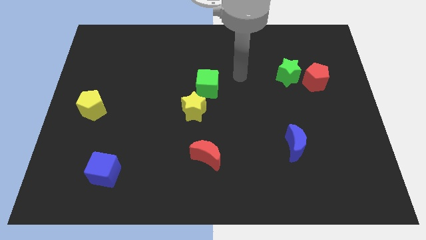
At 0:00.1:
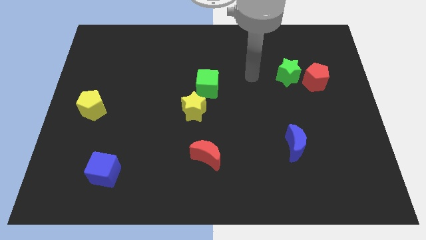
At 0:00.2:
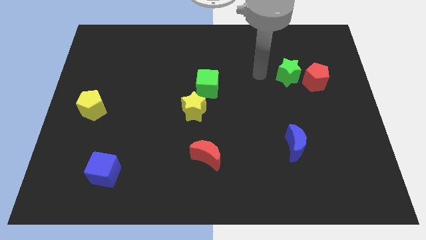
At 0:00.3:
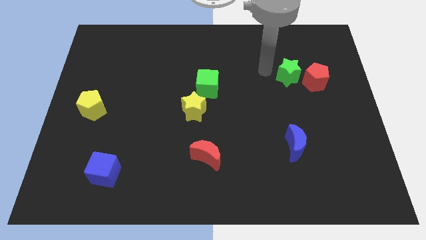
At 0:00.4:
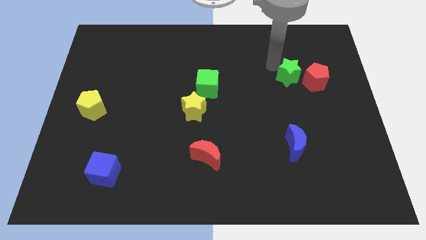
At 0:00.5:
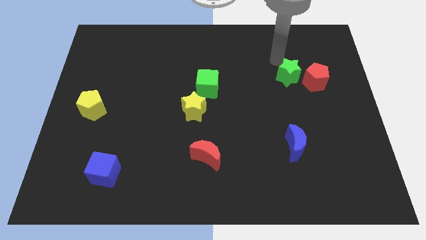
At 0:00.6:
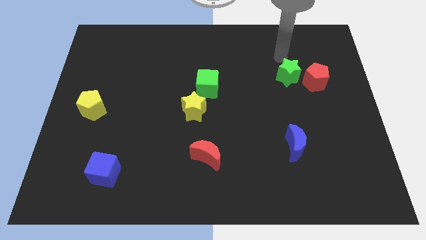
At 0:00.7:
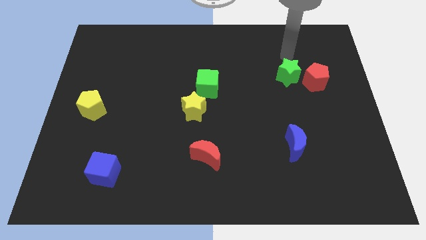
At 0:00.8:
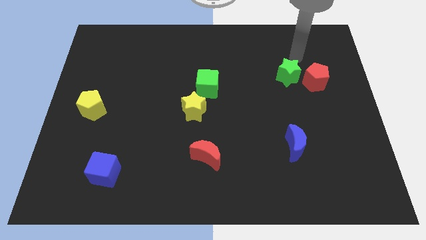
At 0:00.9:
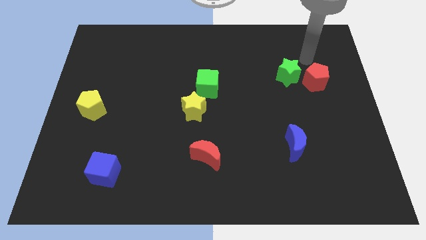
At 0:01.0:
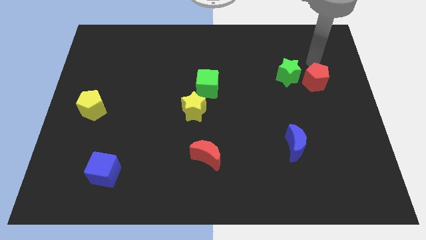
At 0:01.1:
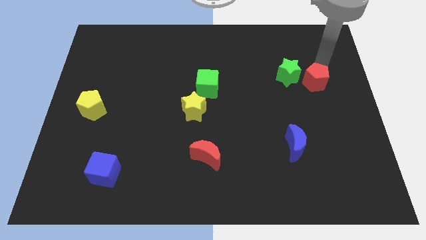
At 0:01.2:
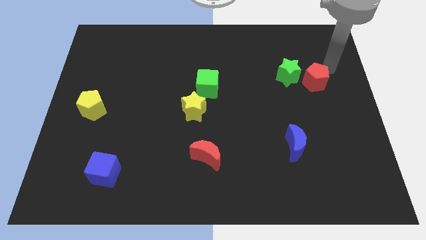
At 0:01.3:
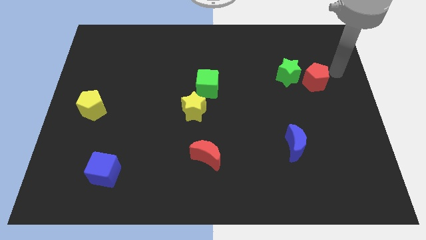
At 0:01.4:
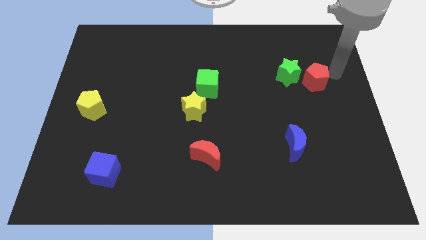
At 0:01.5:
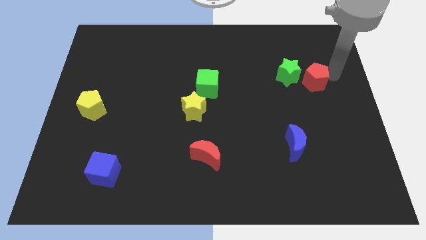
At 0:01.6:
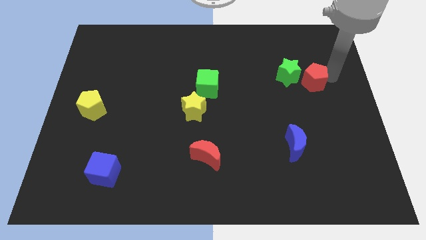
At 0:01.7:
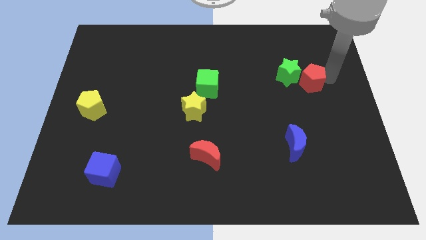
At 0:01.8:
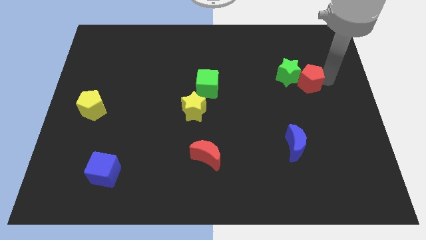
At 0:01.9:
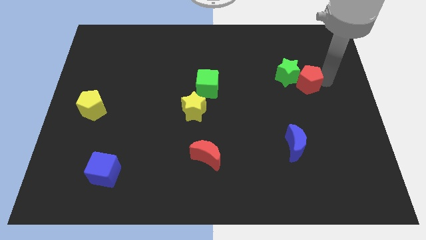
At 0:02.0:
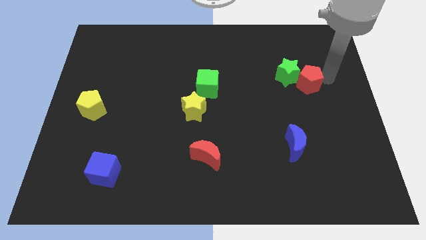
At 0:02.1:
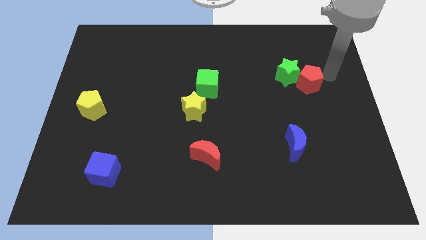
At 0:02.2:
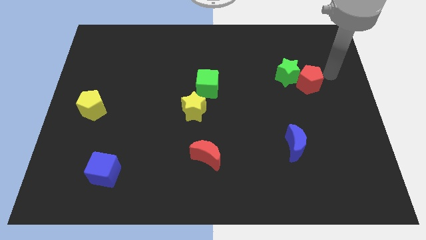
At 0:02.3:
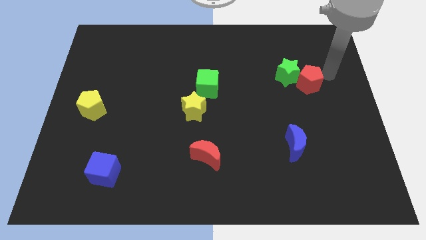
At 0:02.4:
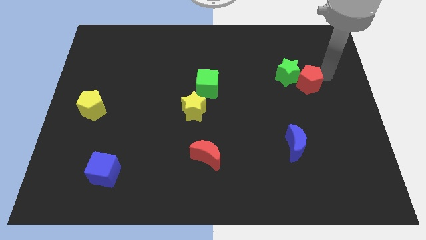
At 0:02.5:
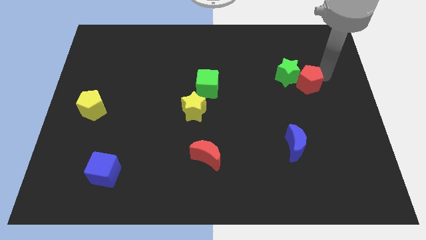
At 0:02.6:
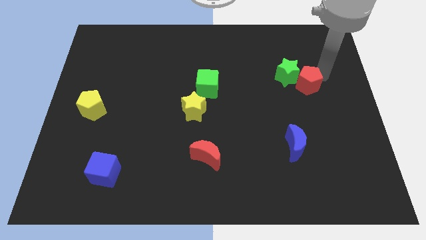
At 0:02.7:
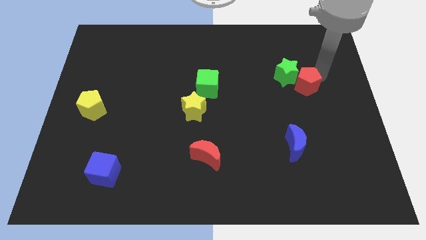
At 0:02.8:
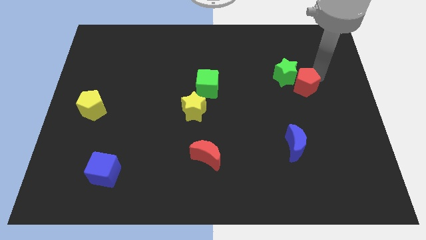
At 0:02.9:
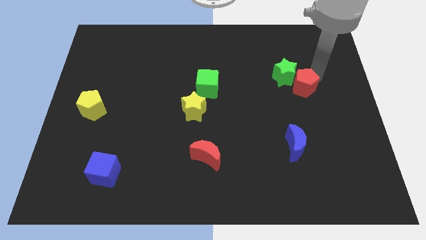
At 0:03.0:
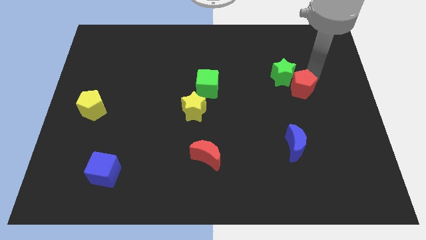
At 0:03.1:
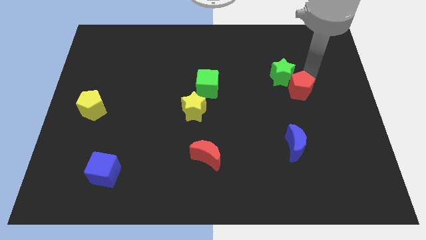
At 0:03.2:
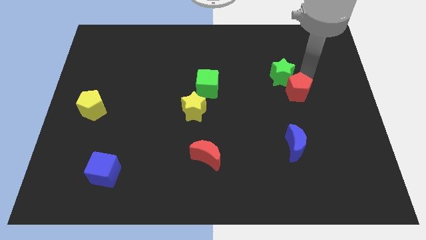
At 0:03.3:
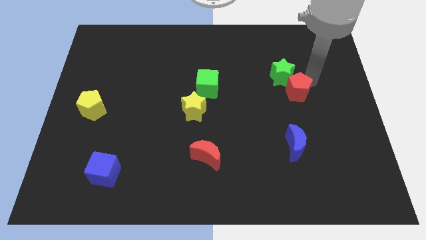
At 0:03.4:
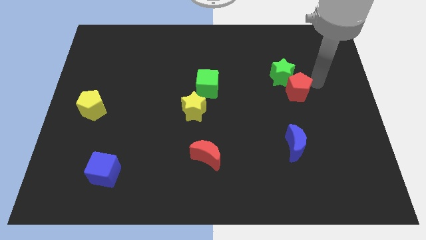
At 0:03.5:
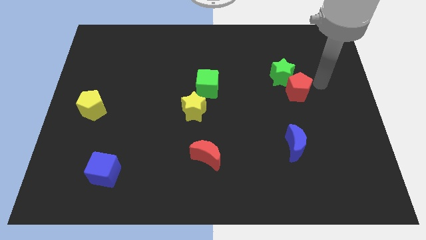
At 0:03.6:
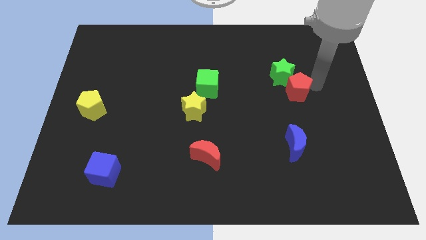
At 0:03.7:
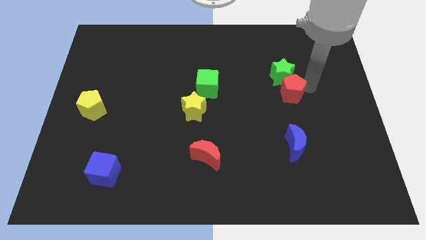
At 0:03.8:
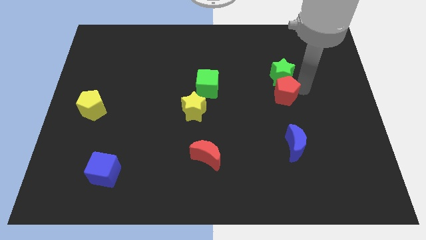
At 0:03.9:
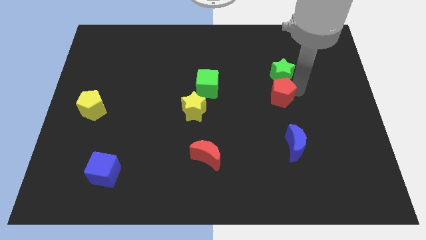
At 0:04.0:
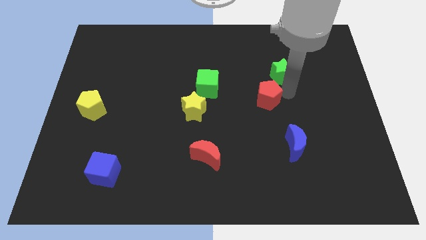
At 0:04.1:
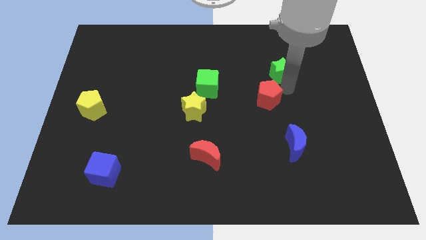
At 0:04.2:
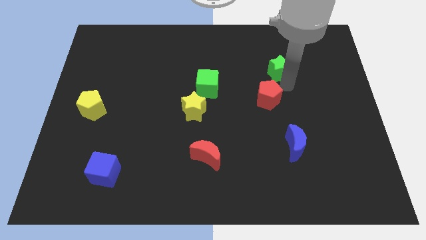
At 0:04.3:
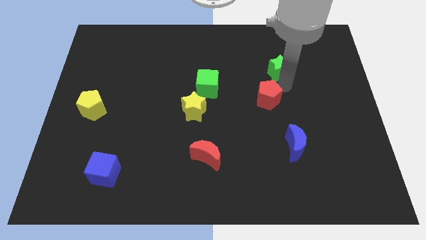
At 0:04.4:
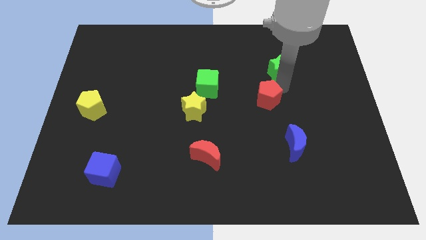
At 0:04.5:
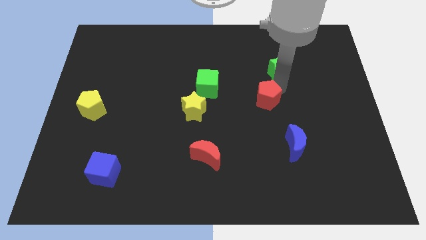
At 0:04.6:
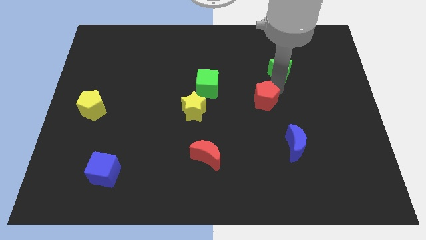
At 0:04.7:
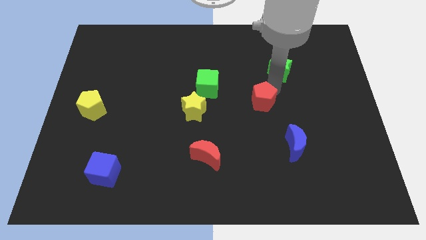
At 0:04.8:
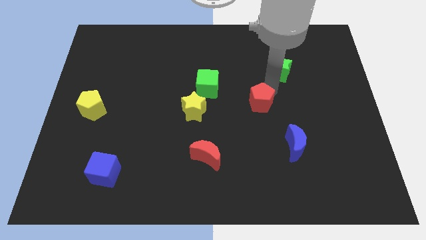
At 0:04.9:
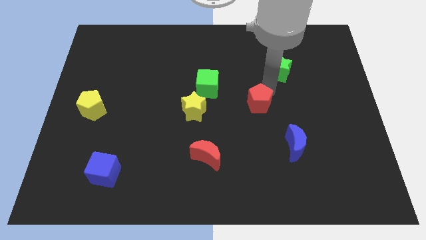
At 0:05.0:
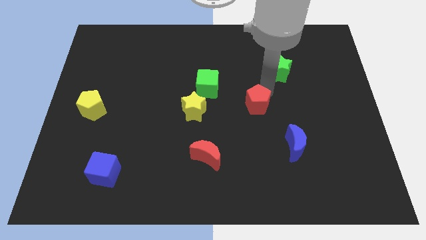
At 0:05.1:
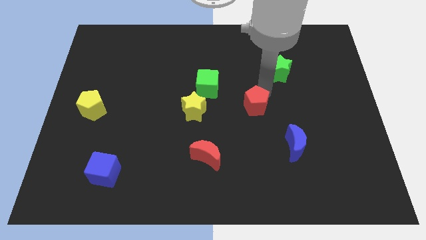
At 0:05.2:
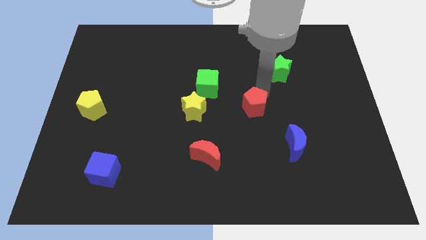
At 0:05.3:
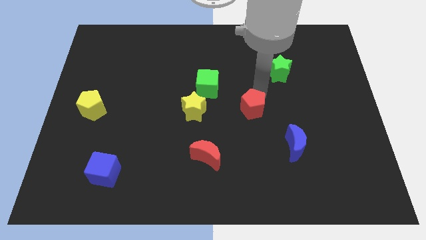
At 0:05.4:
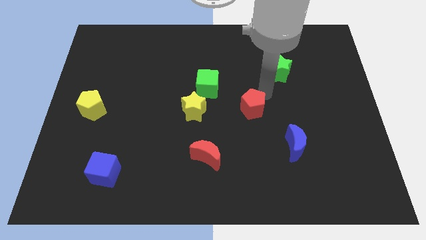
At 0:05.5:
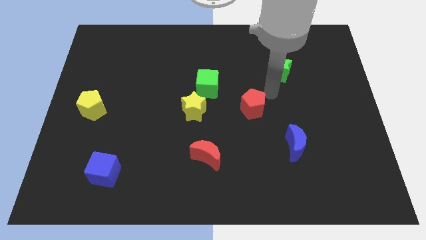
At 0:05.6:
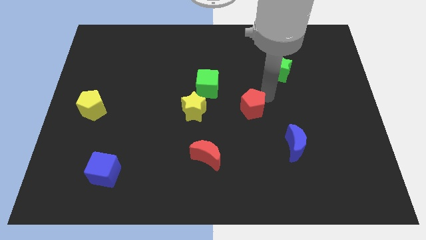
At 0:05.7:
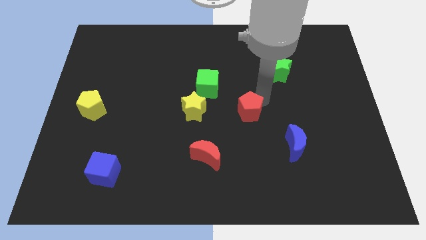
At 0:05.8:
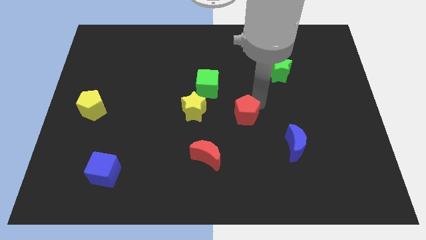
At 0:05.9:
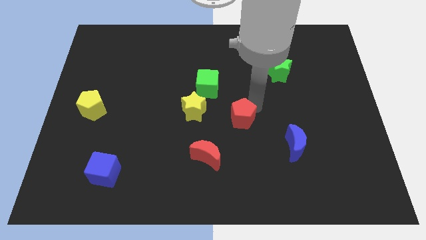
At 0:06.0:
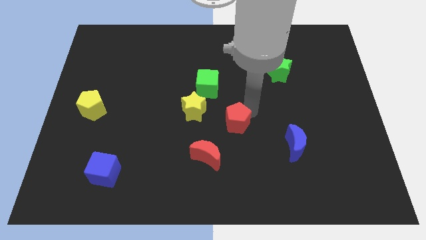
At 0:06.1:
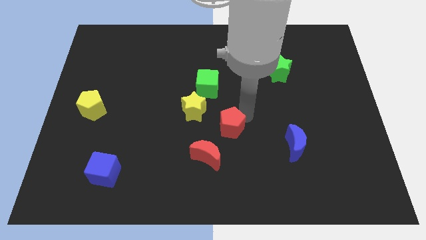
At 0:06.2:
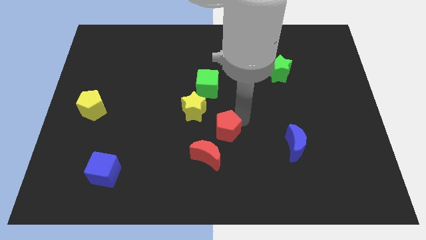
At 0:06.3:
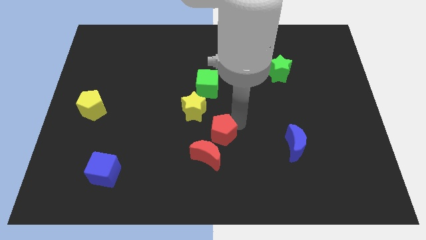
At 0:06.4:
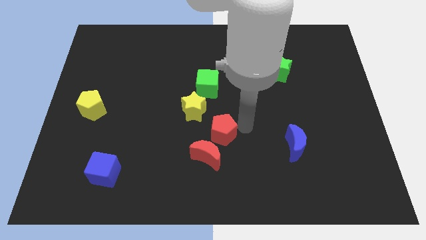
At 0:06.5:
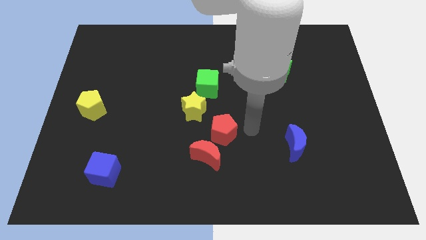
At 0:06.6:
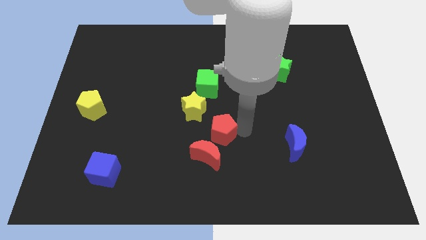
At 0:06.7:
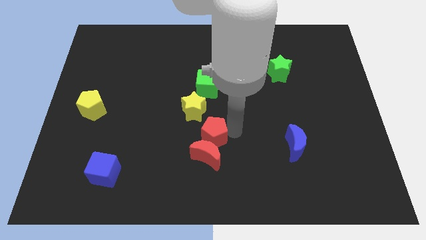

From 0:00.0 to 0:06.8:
slide the red pentagon to the top left of the red moon

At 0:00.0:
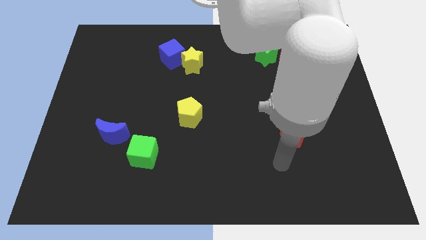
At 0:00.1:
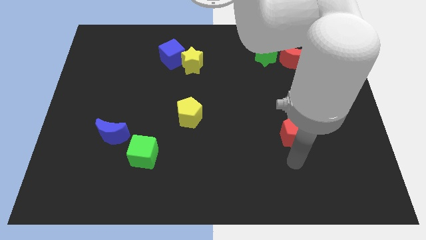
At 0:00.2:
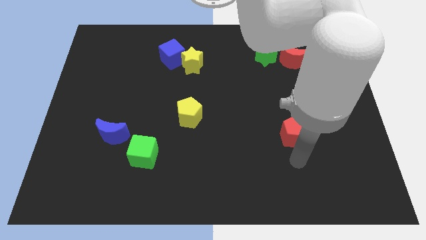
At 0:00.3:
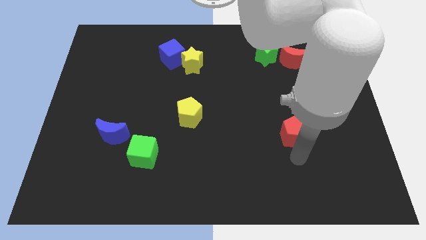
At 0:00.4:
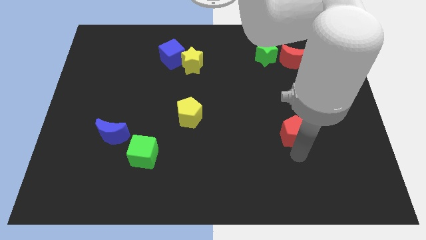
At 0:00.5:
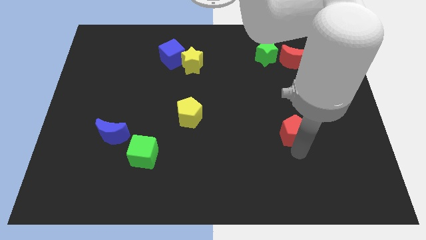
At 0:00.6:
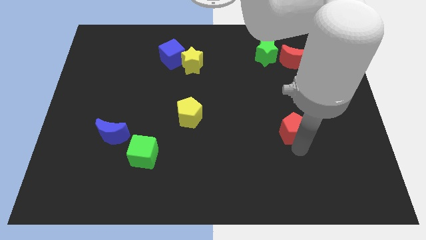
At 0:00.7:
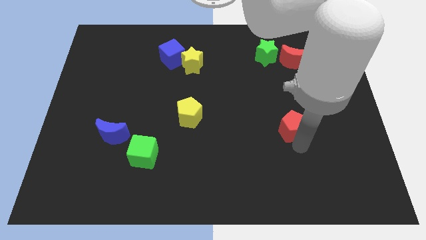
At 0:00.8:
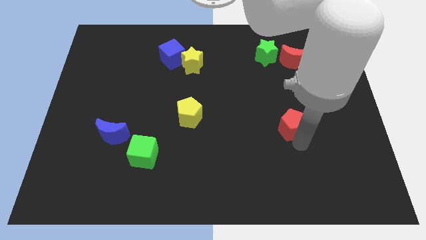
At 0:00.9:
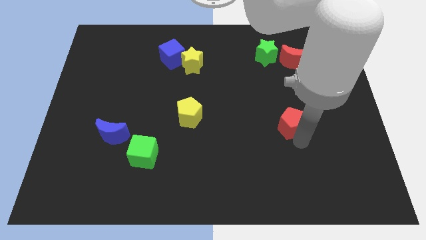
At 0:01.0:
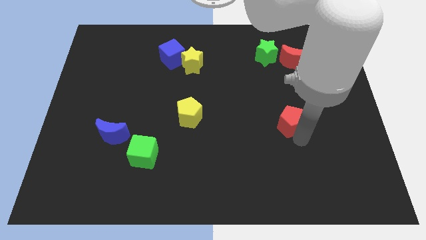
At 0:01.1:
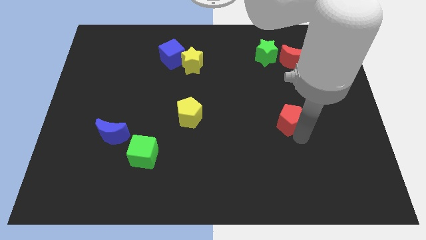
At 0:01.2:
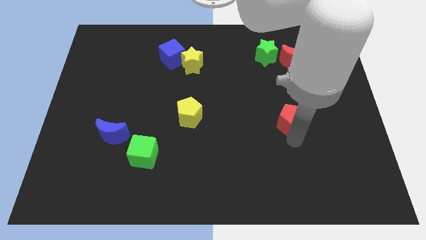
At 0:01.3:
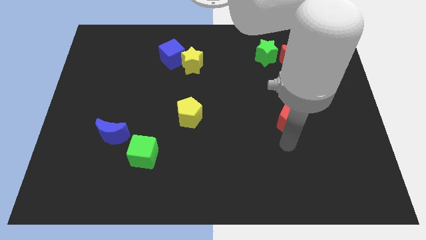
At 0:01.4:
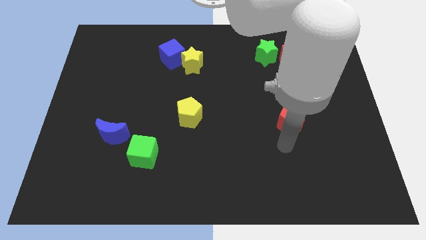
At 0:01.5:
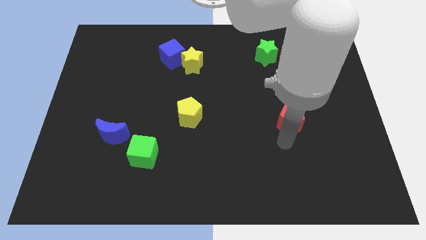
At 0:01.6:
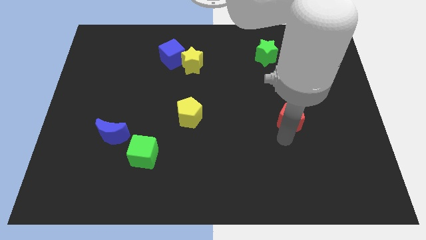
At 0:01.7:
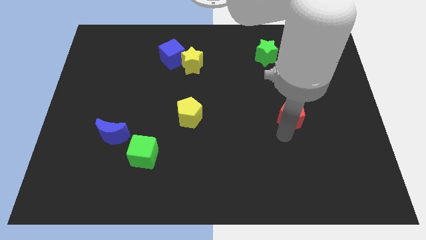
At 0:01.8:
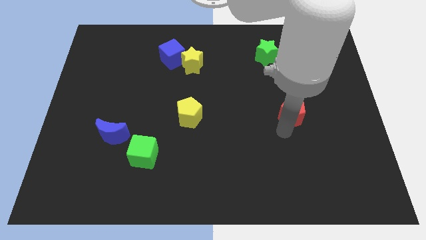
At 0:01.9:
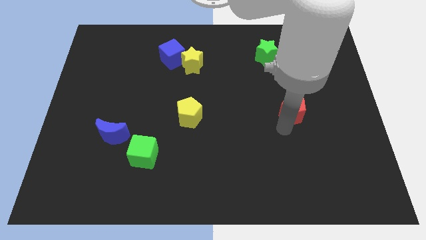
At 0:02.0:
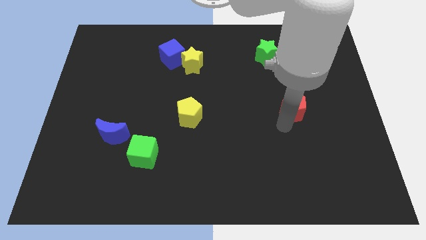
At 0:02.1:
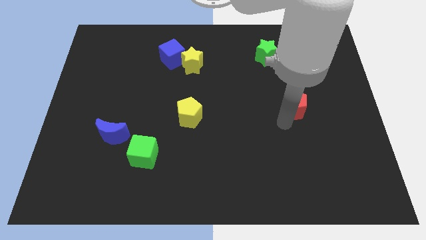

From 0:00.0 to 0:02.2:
slide the red pentagon to the bottom of the red moon
